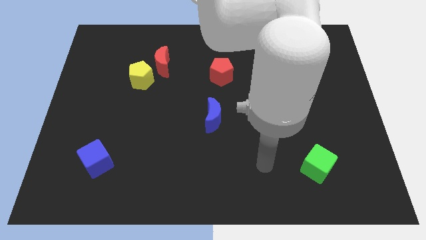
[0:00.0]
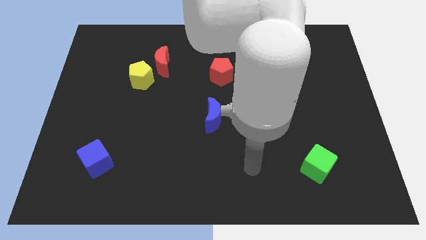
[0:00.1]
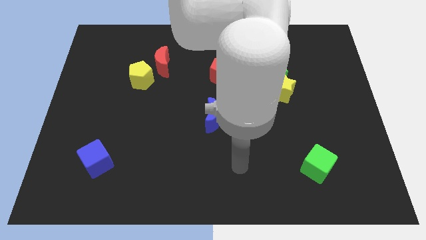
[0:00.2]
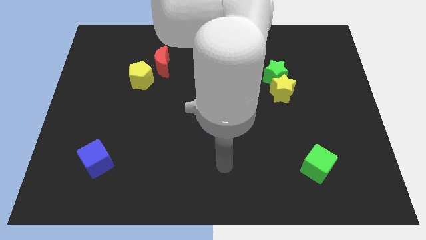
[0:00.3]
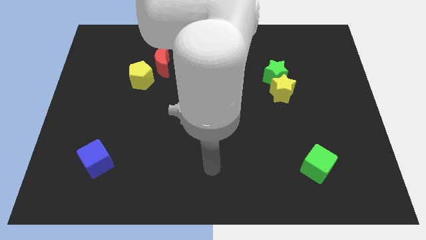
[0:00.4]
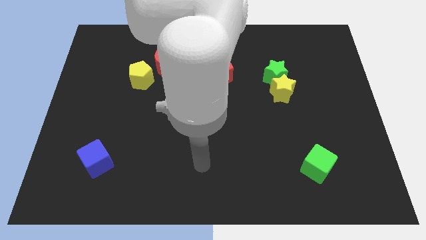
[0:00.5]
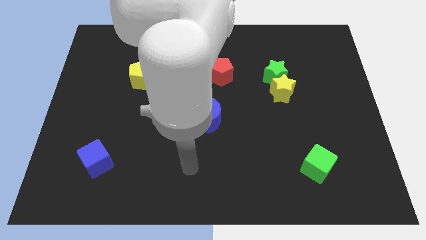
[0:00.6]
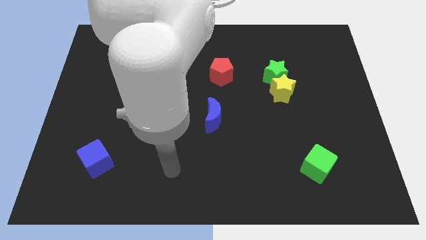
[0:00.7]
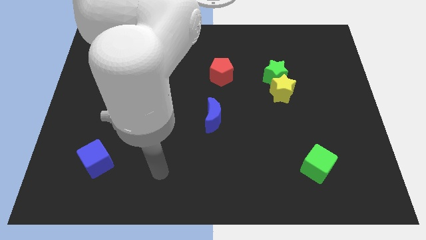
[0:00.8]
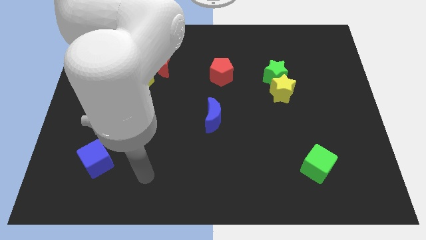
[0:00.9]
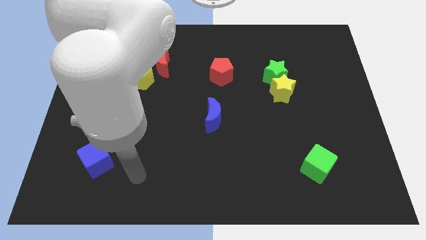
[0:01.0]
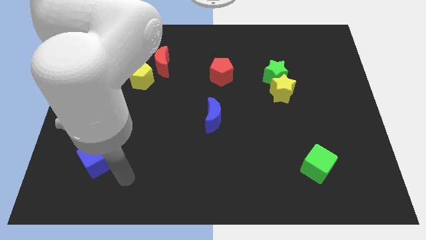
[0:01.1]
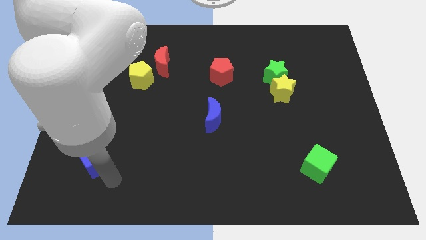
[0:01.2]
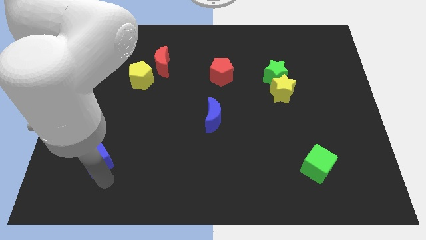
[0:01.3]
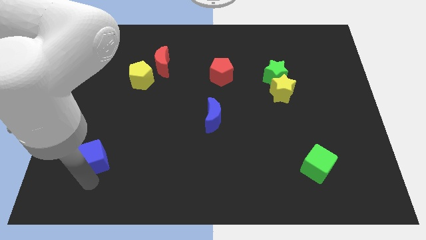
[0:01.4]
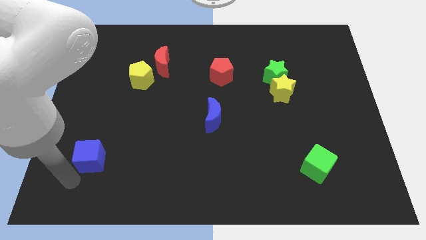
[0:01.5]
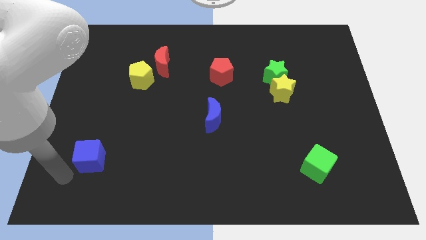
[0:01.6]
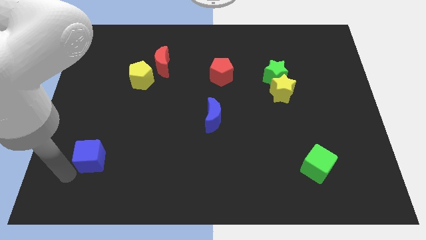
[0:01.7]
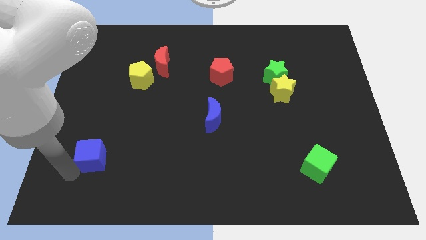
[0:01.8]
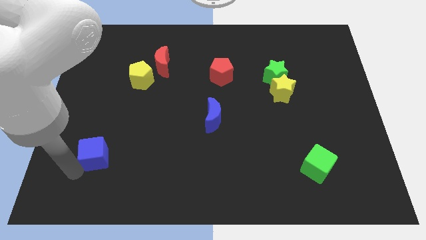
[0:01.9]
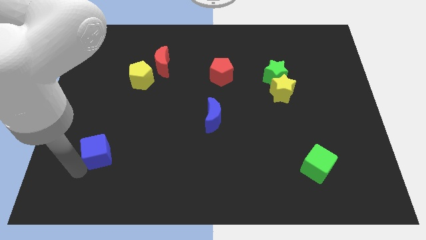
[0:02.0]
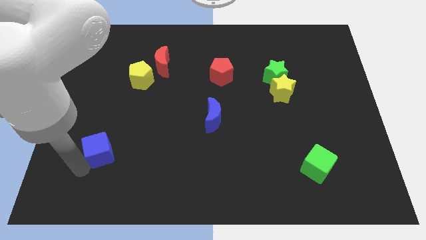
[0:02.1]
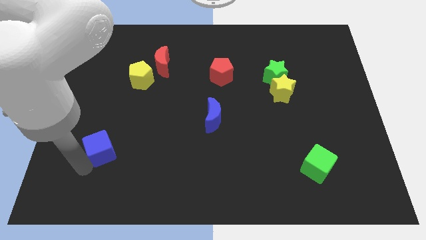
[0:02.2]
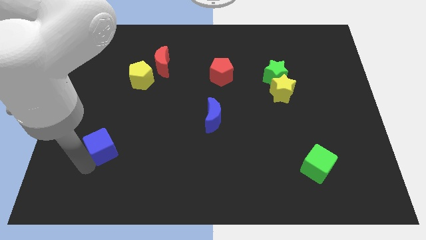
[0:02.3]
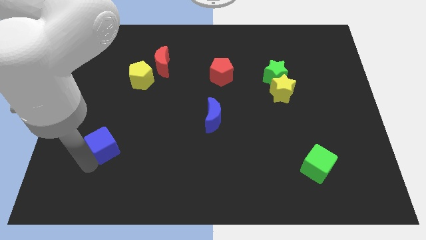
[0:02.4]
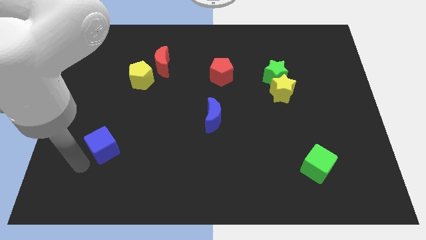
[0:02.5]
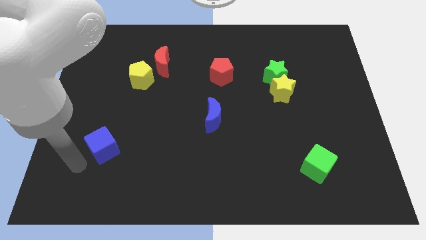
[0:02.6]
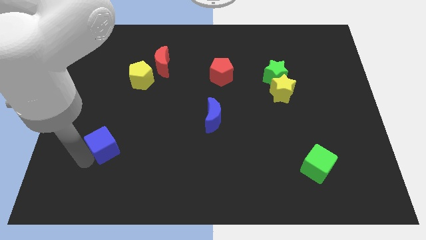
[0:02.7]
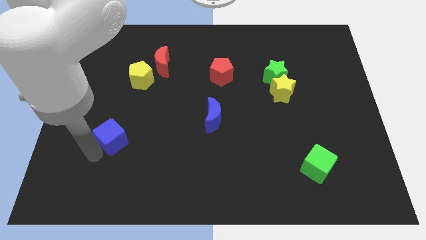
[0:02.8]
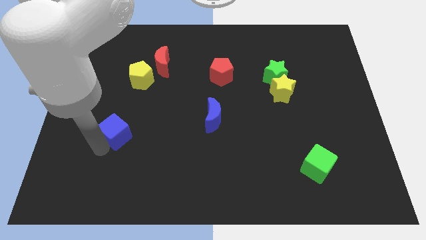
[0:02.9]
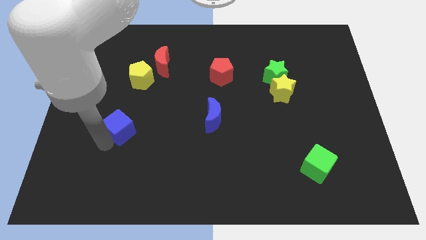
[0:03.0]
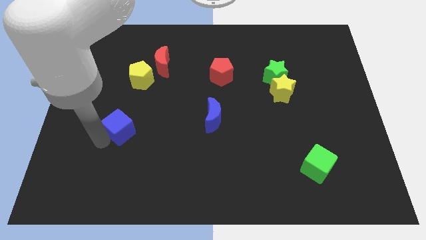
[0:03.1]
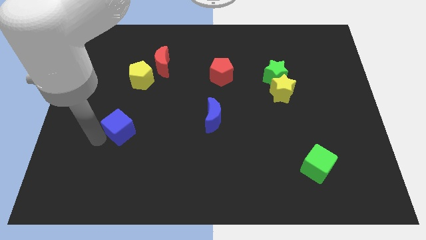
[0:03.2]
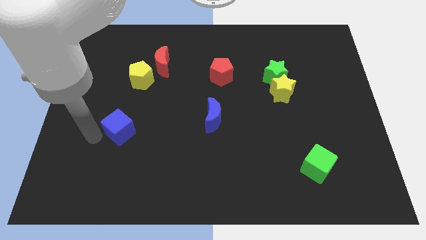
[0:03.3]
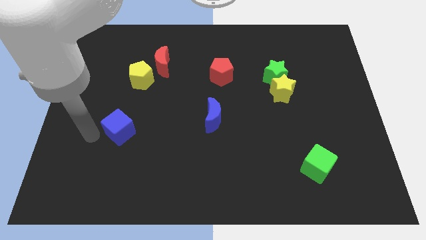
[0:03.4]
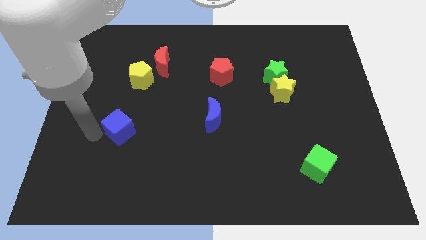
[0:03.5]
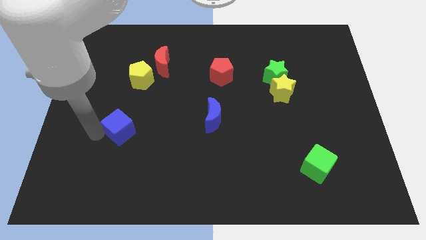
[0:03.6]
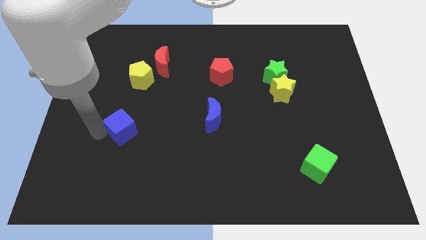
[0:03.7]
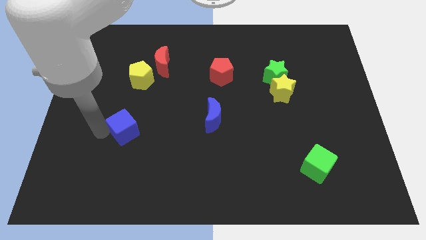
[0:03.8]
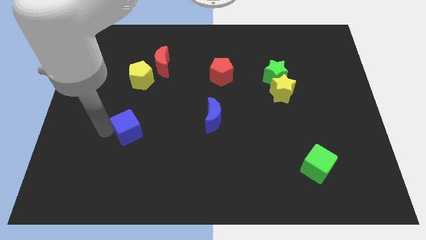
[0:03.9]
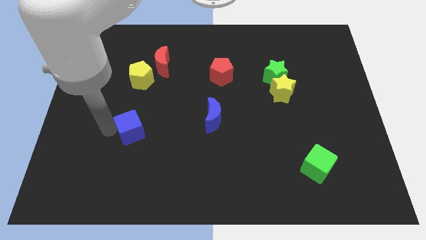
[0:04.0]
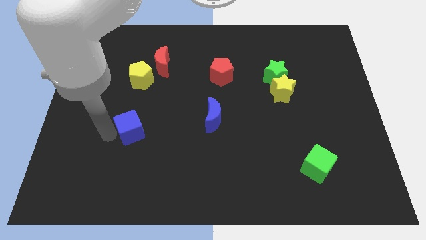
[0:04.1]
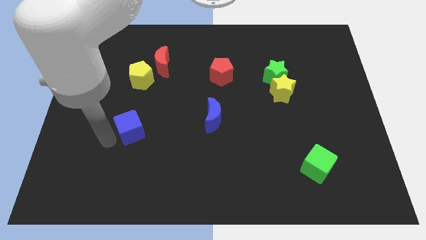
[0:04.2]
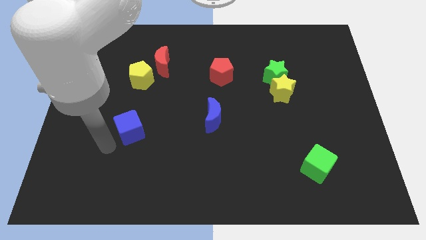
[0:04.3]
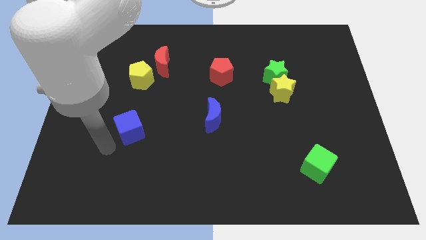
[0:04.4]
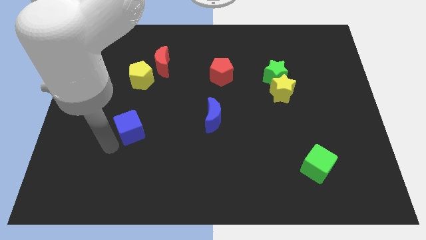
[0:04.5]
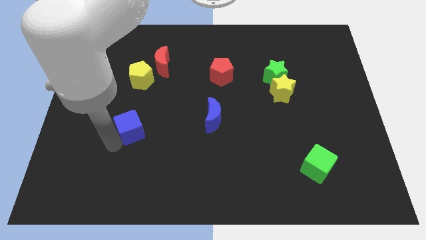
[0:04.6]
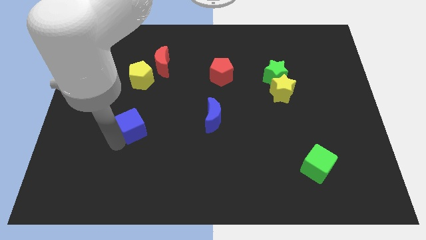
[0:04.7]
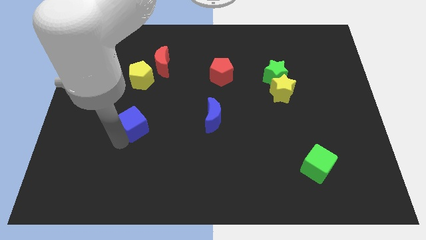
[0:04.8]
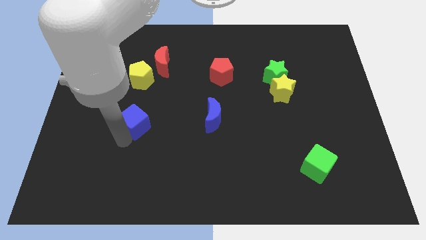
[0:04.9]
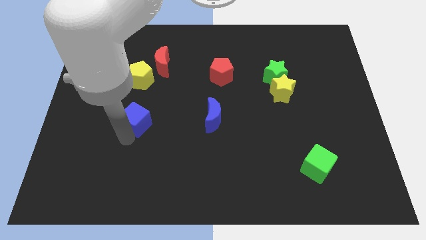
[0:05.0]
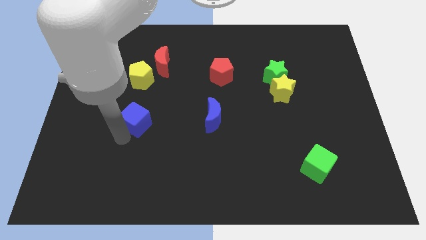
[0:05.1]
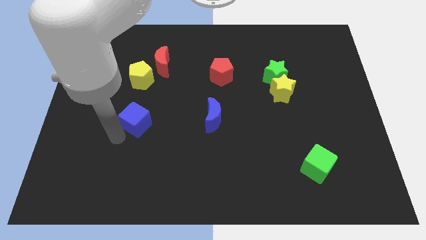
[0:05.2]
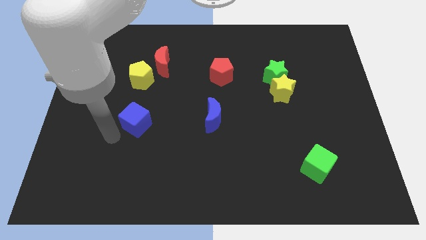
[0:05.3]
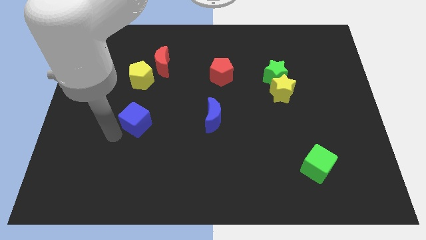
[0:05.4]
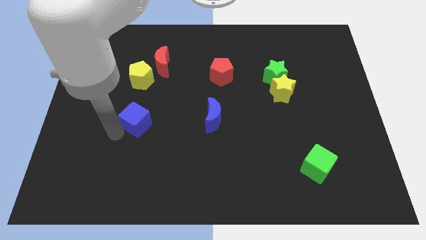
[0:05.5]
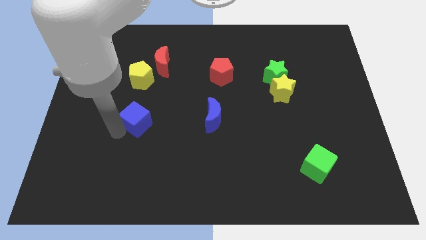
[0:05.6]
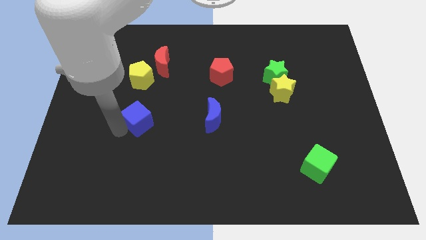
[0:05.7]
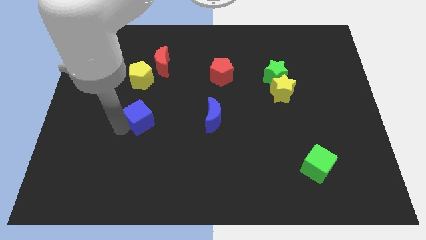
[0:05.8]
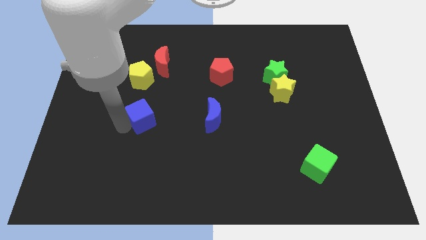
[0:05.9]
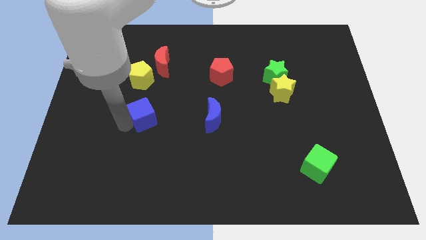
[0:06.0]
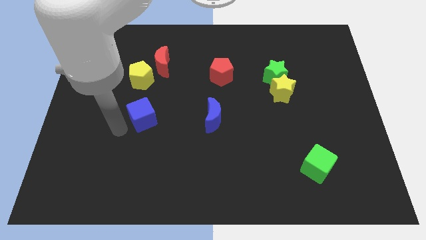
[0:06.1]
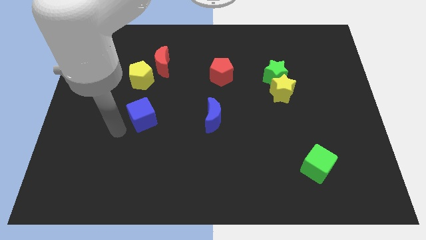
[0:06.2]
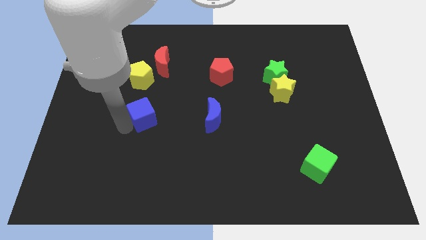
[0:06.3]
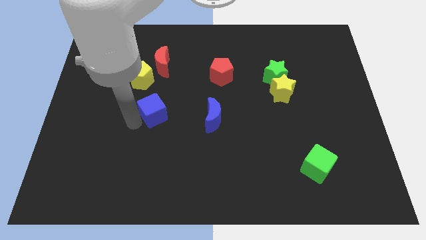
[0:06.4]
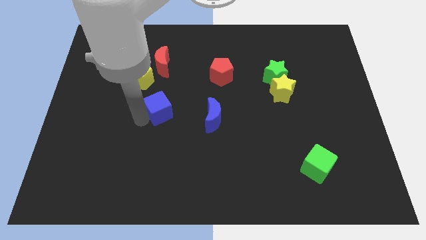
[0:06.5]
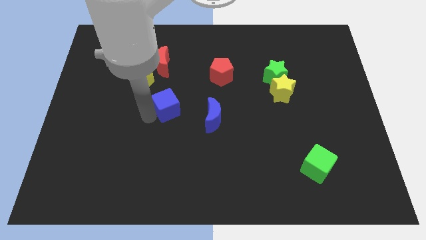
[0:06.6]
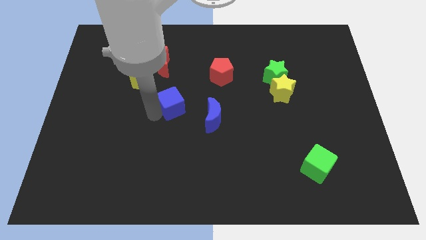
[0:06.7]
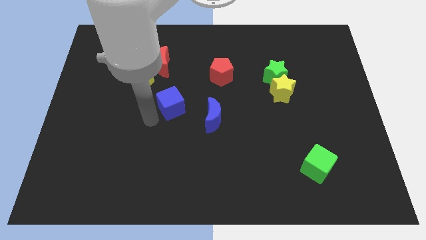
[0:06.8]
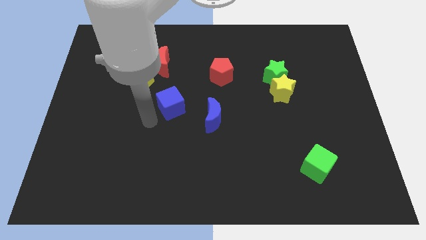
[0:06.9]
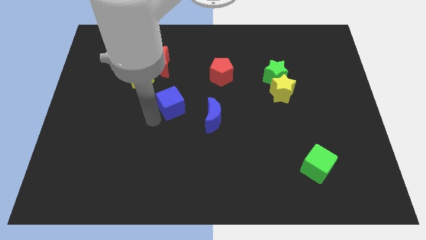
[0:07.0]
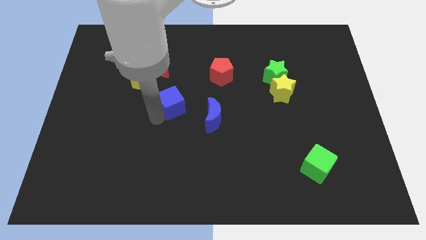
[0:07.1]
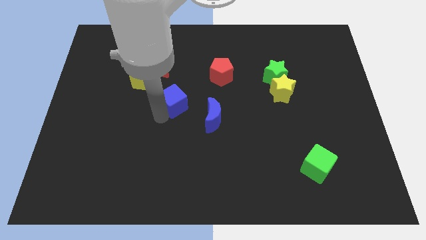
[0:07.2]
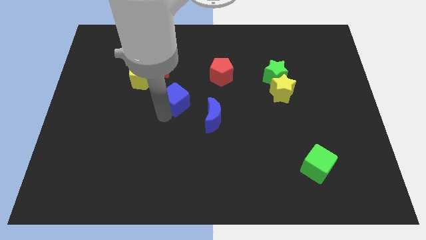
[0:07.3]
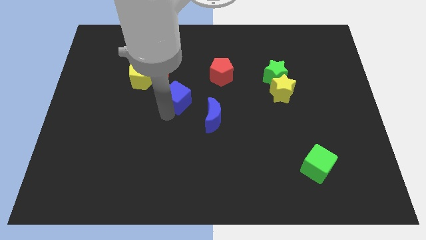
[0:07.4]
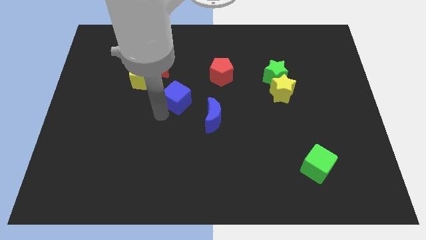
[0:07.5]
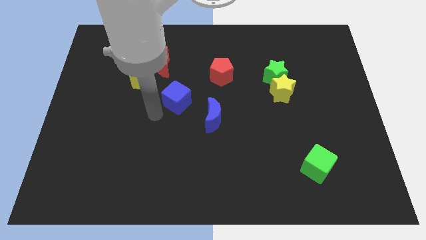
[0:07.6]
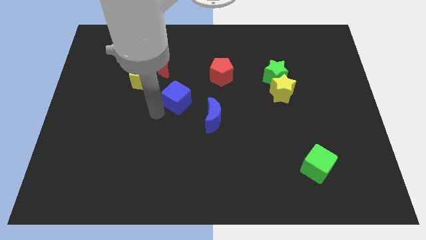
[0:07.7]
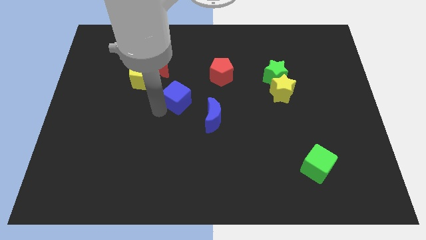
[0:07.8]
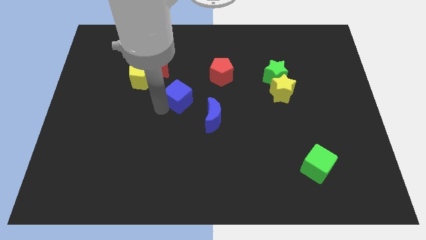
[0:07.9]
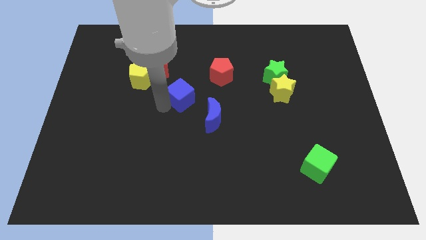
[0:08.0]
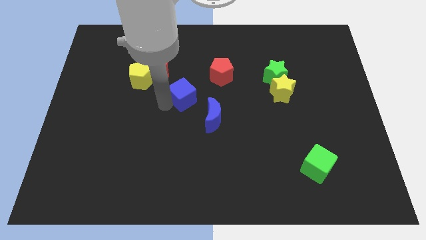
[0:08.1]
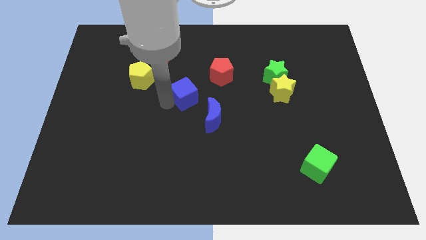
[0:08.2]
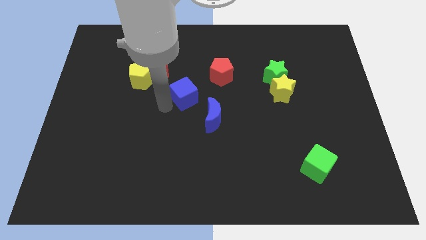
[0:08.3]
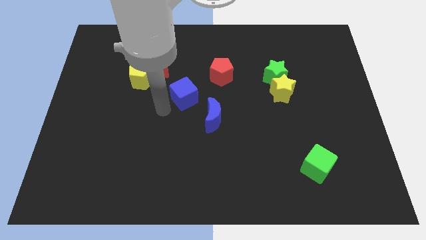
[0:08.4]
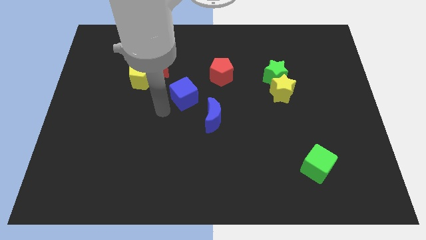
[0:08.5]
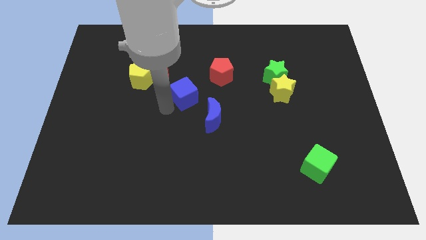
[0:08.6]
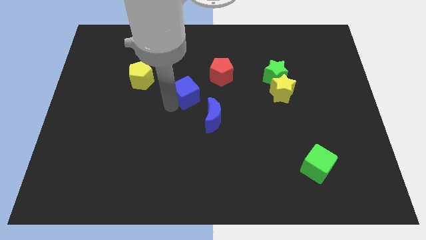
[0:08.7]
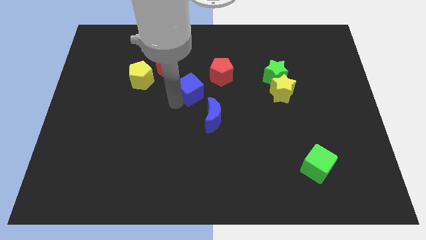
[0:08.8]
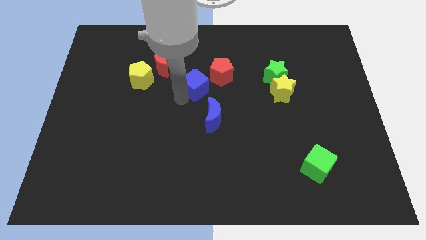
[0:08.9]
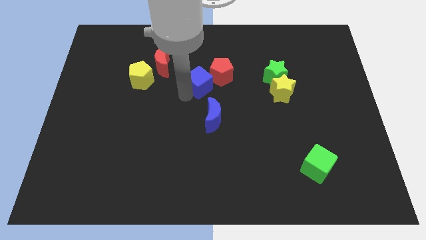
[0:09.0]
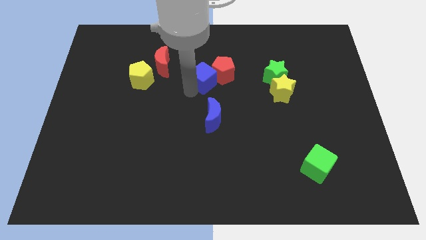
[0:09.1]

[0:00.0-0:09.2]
push the blue cube close to the red pentagon
